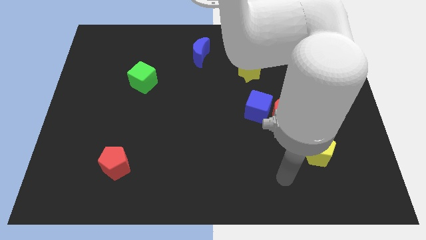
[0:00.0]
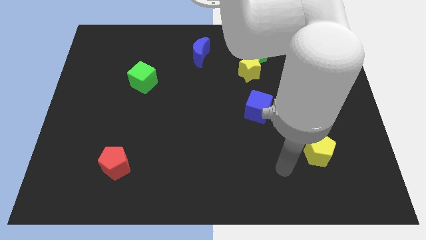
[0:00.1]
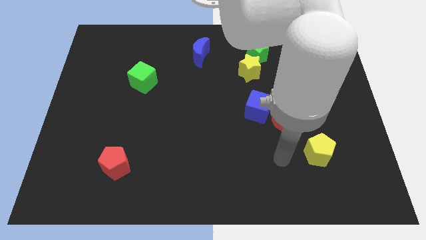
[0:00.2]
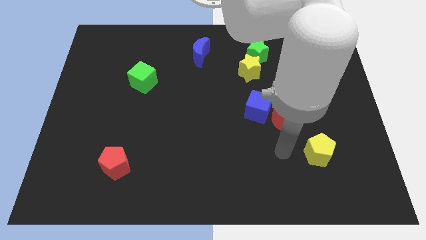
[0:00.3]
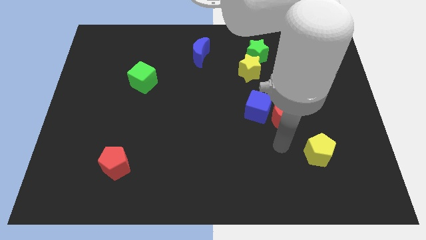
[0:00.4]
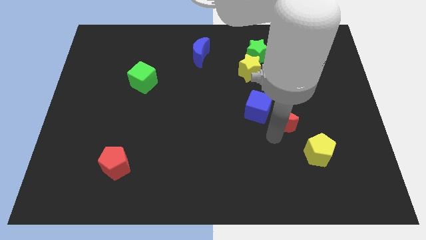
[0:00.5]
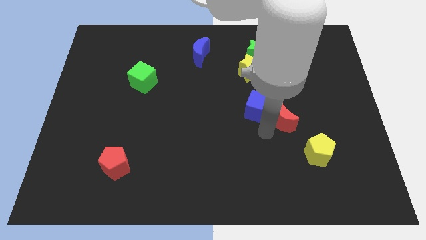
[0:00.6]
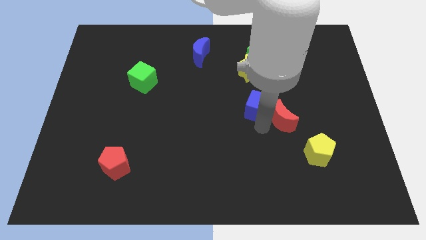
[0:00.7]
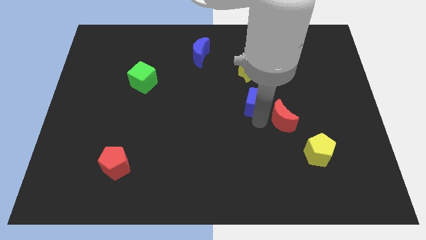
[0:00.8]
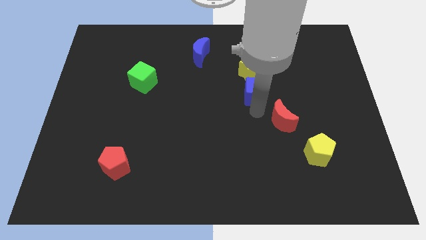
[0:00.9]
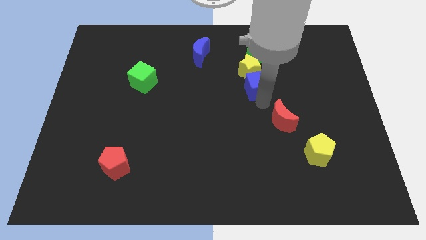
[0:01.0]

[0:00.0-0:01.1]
move the red moon away from the blue cube

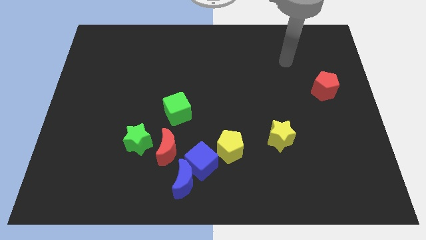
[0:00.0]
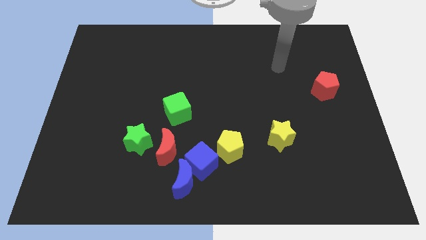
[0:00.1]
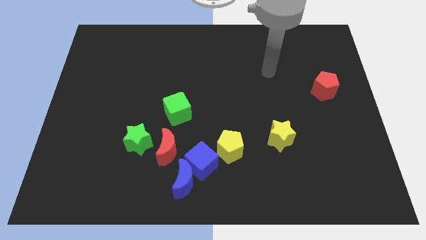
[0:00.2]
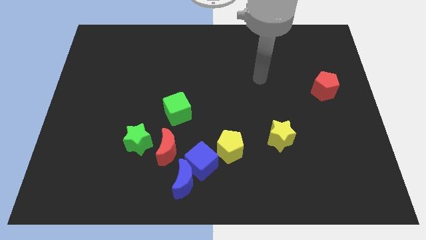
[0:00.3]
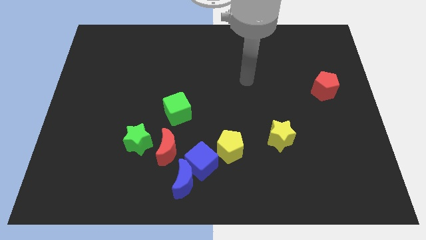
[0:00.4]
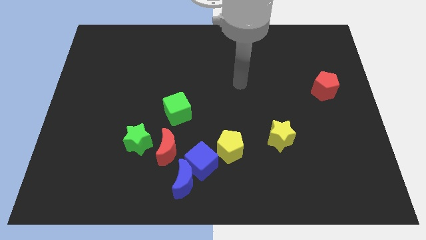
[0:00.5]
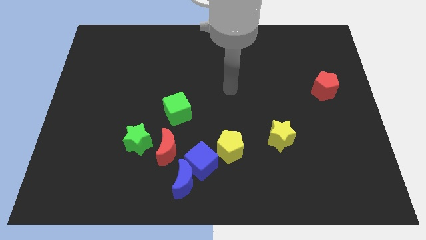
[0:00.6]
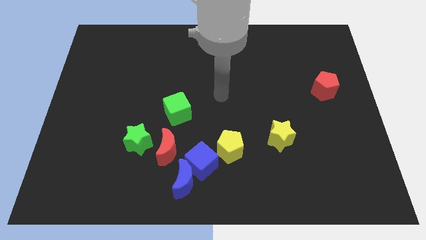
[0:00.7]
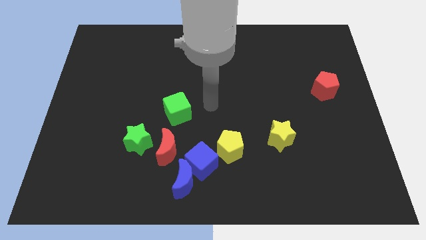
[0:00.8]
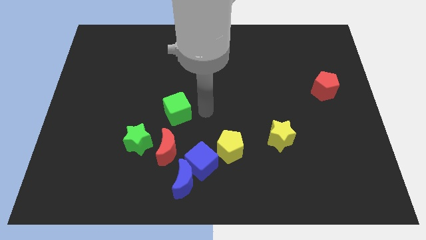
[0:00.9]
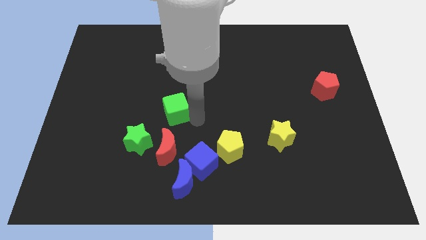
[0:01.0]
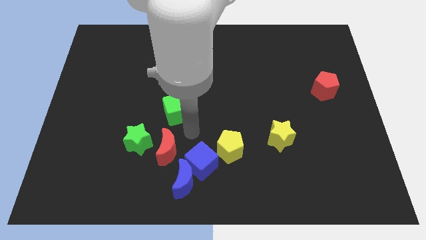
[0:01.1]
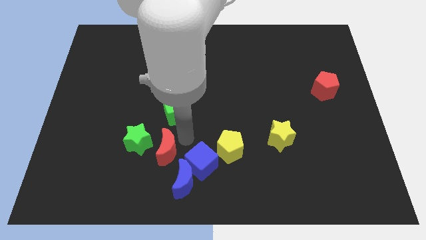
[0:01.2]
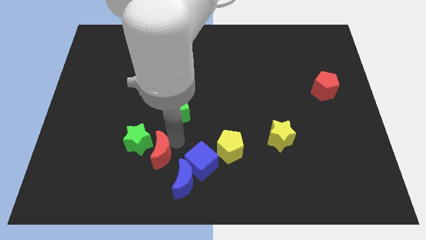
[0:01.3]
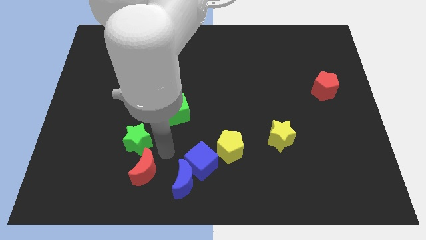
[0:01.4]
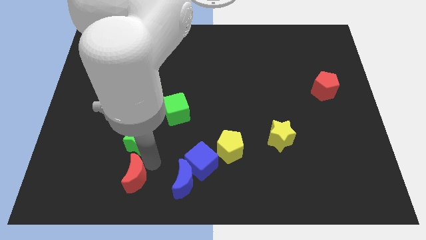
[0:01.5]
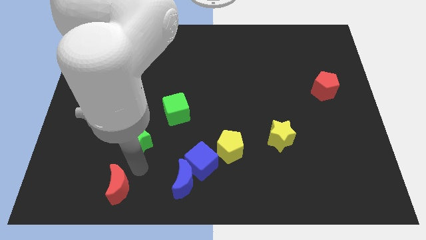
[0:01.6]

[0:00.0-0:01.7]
pull the green star apart from the red moon

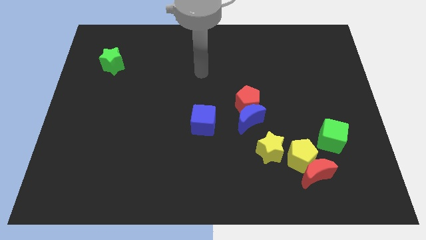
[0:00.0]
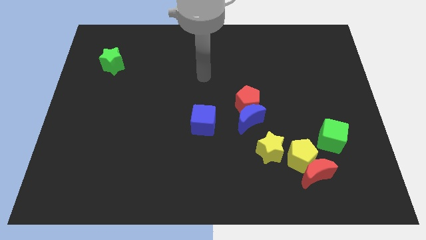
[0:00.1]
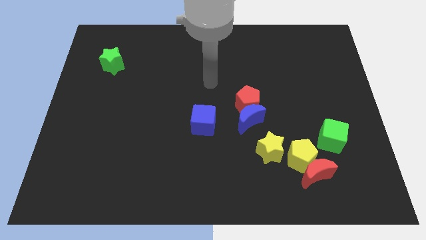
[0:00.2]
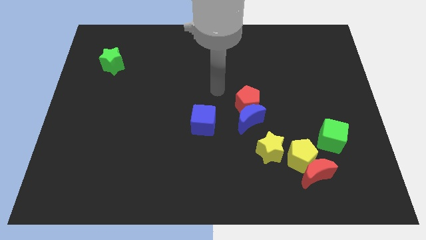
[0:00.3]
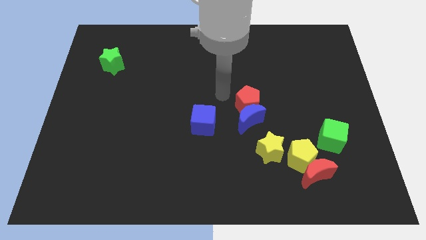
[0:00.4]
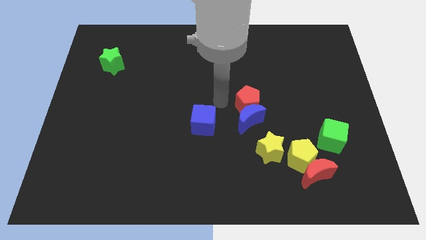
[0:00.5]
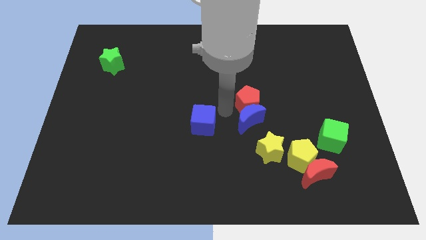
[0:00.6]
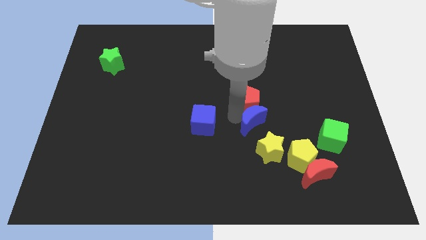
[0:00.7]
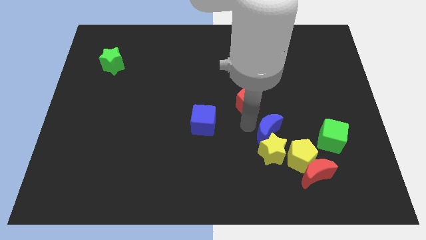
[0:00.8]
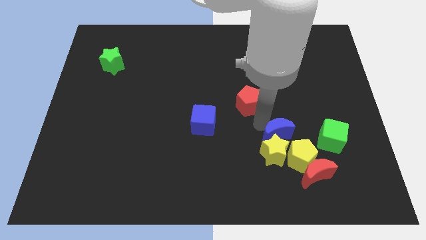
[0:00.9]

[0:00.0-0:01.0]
separate the red pentagon from the blue moon

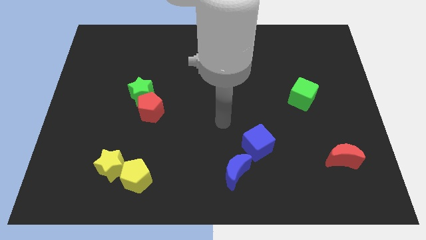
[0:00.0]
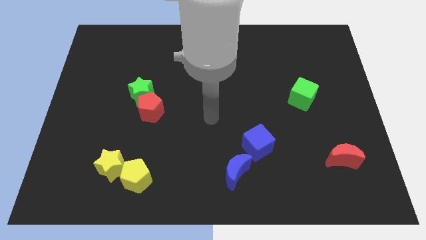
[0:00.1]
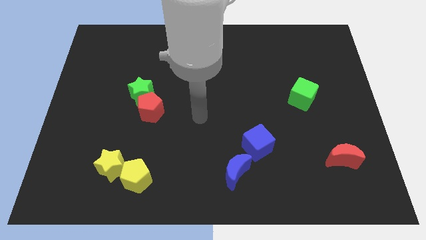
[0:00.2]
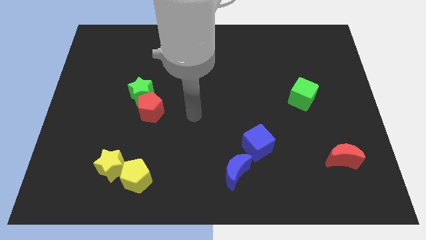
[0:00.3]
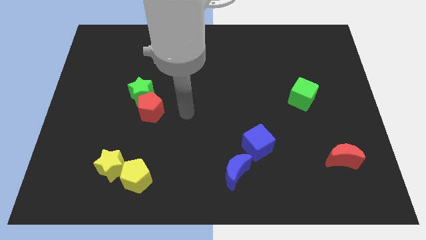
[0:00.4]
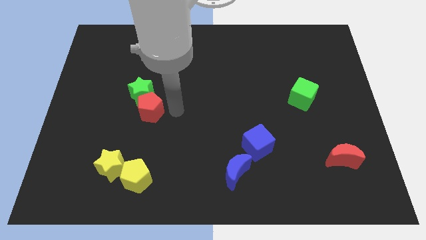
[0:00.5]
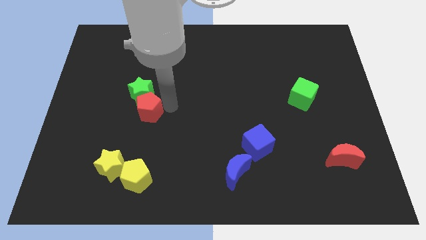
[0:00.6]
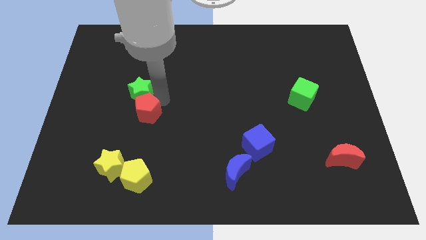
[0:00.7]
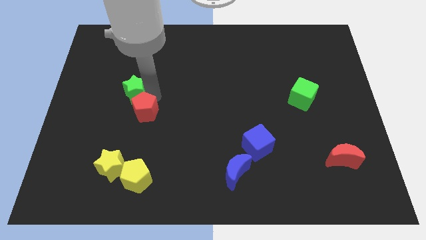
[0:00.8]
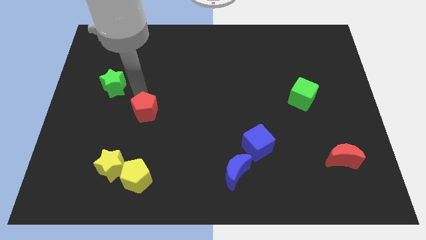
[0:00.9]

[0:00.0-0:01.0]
separate the red pentagon from the green star

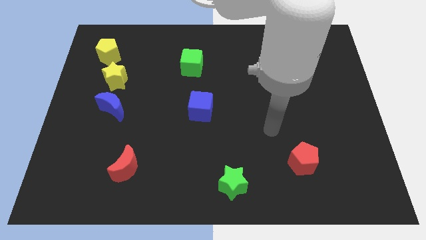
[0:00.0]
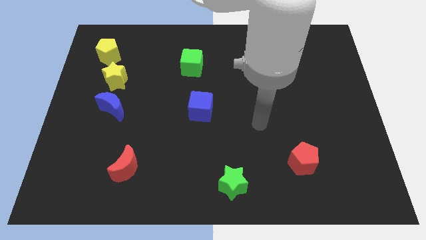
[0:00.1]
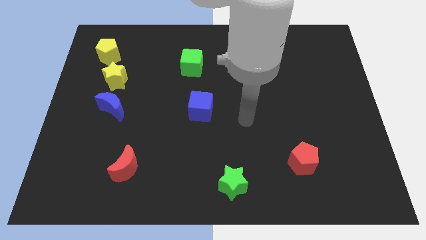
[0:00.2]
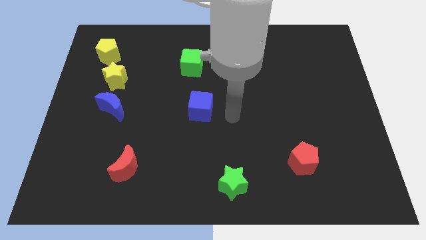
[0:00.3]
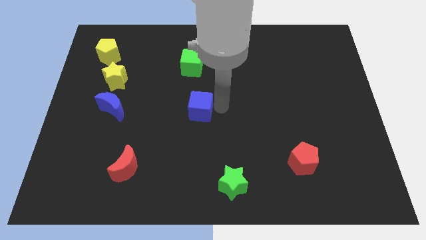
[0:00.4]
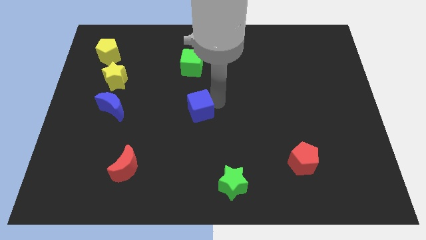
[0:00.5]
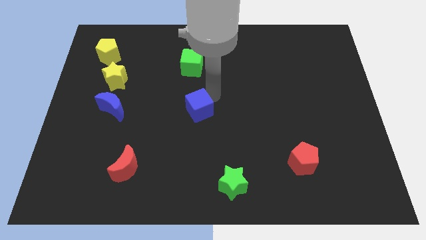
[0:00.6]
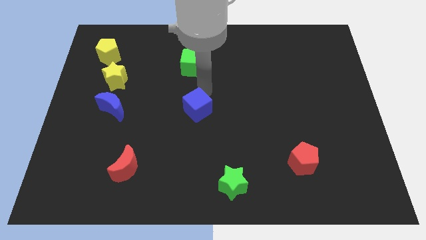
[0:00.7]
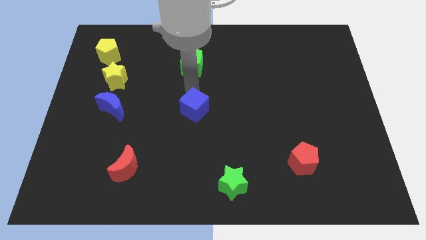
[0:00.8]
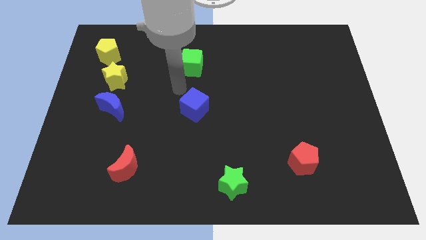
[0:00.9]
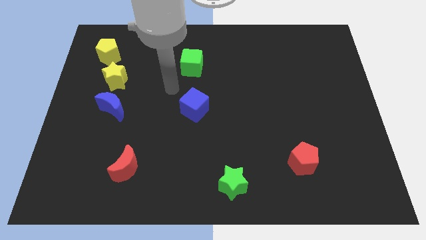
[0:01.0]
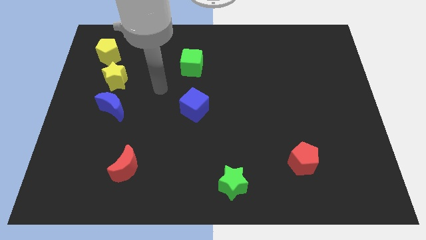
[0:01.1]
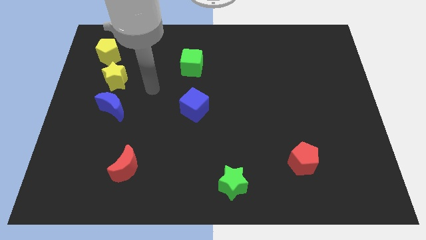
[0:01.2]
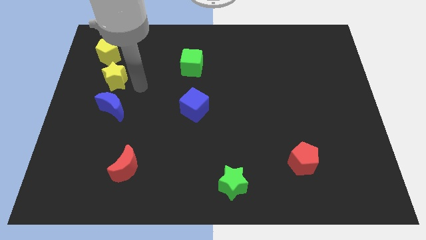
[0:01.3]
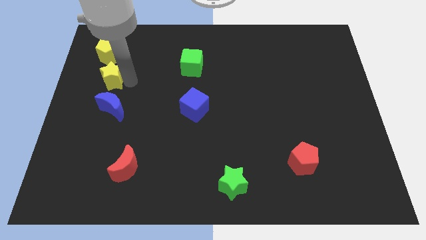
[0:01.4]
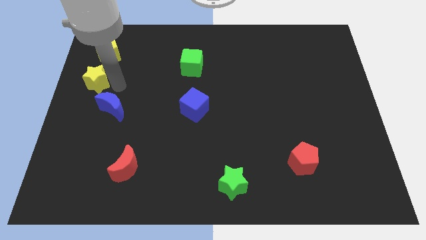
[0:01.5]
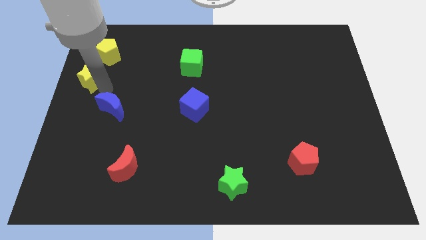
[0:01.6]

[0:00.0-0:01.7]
pull the blue moon apart from the yellow star

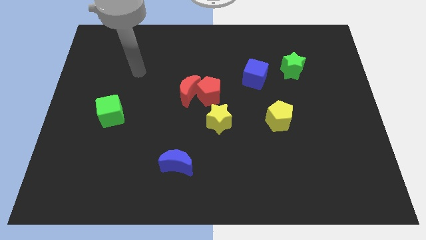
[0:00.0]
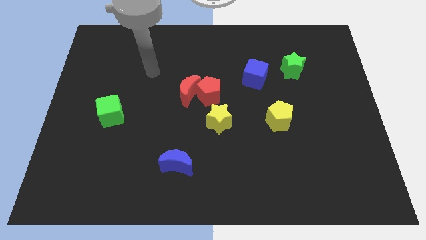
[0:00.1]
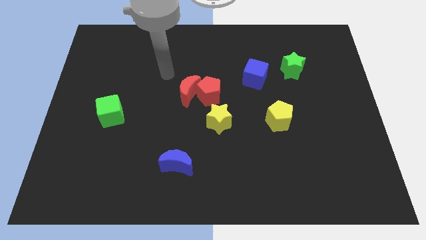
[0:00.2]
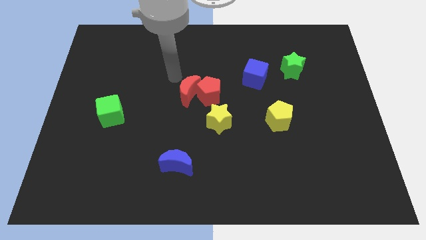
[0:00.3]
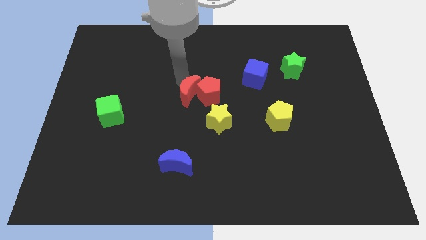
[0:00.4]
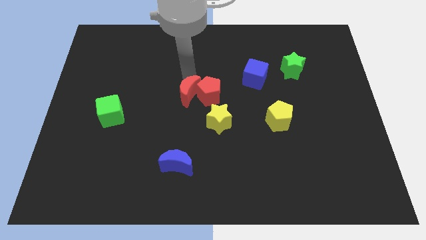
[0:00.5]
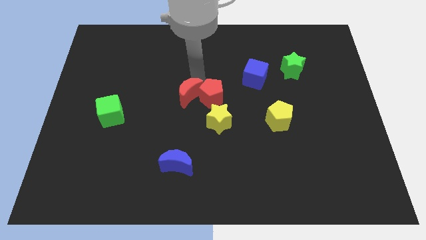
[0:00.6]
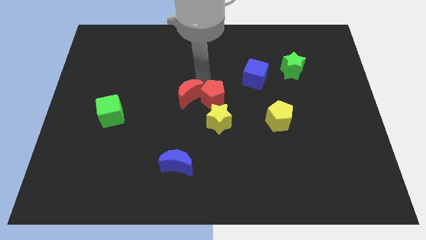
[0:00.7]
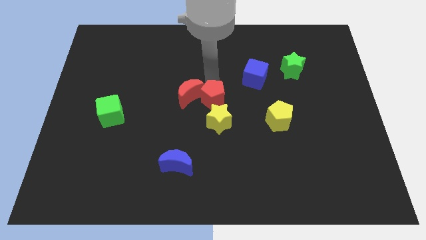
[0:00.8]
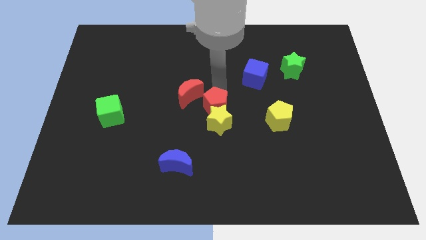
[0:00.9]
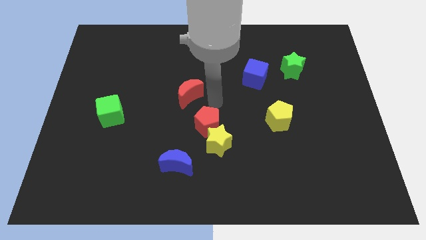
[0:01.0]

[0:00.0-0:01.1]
pull the red moon apart from the red pentagon

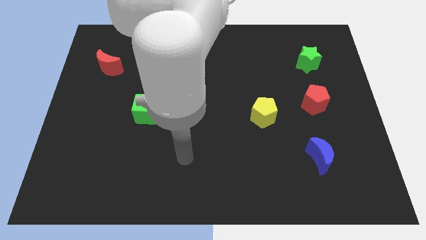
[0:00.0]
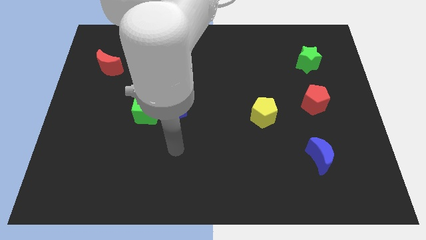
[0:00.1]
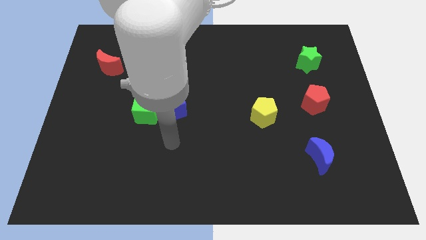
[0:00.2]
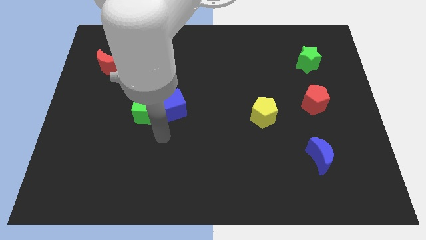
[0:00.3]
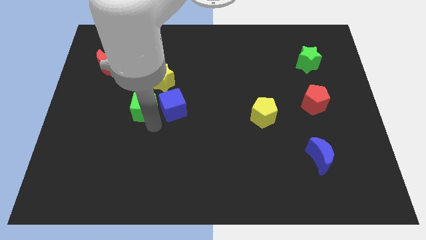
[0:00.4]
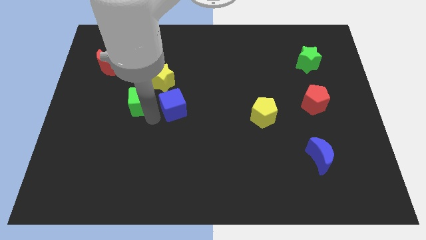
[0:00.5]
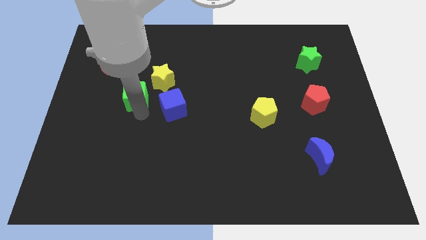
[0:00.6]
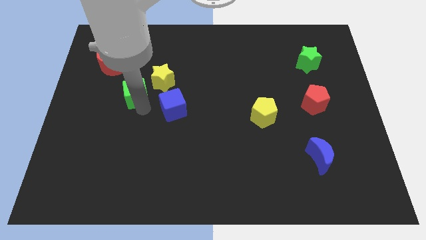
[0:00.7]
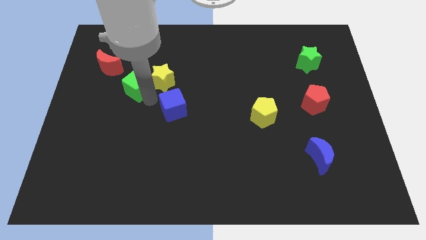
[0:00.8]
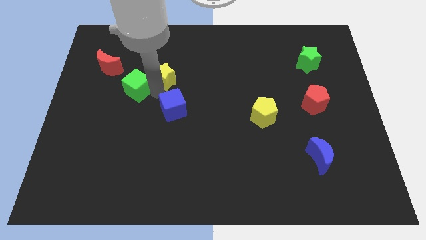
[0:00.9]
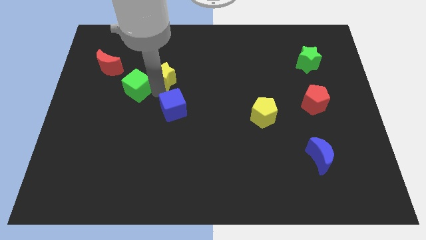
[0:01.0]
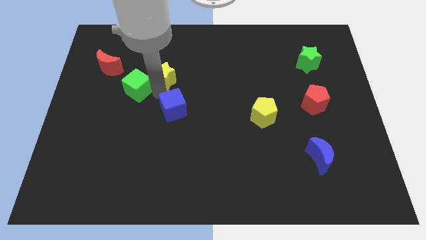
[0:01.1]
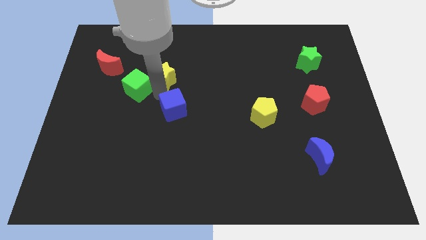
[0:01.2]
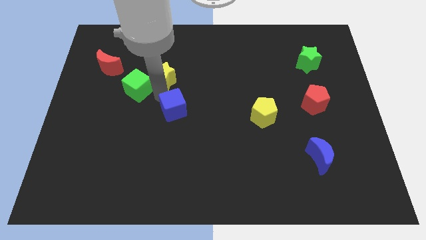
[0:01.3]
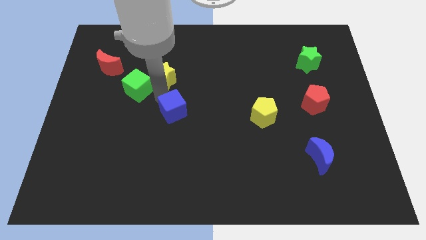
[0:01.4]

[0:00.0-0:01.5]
pull the blue cube apart from the green cube and yellow star
